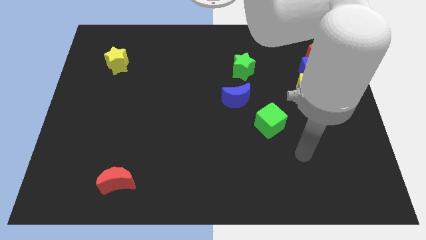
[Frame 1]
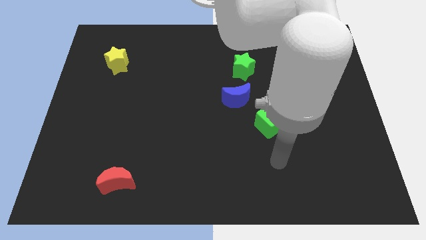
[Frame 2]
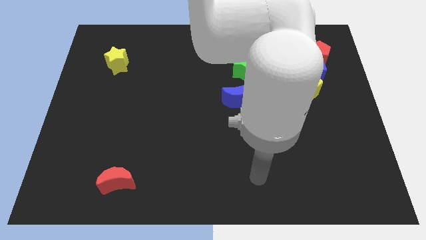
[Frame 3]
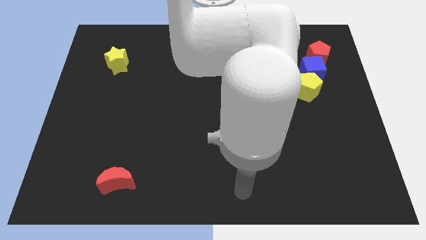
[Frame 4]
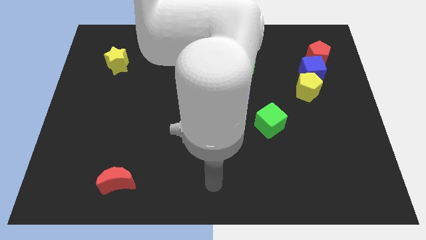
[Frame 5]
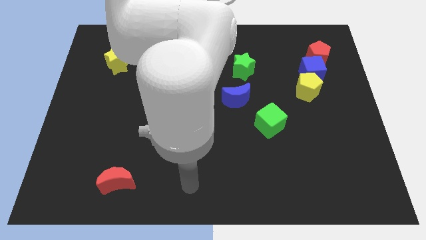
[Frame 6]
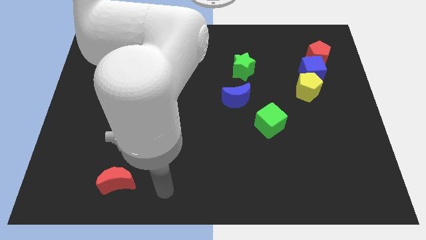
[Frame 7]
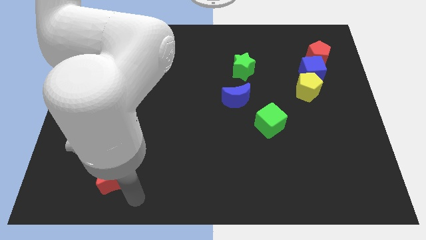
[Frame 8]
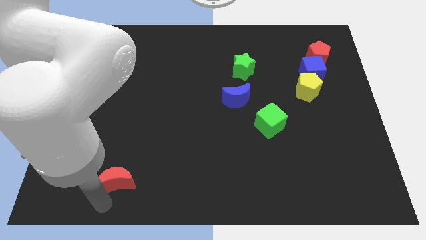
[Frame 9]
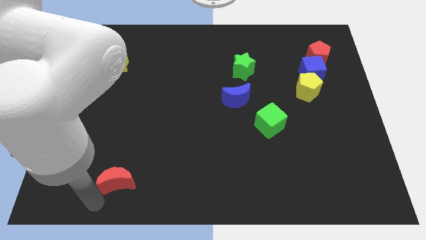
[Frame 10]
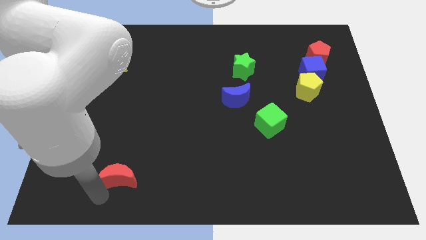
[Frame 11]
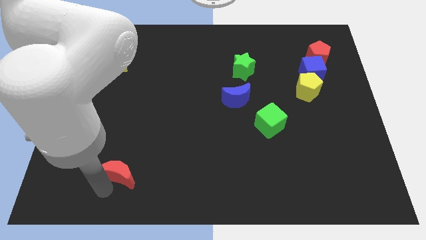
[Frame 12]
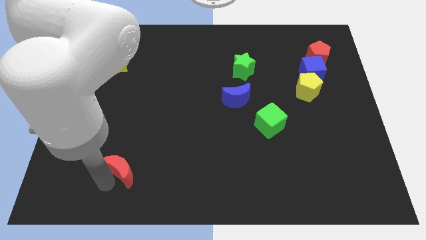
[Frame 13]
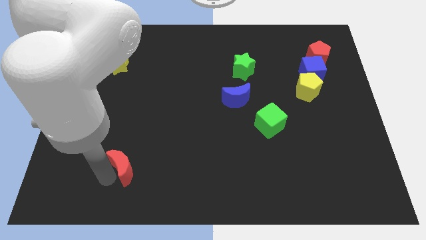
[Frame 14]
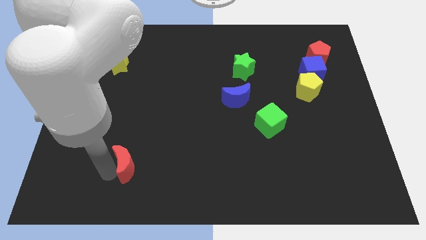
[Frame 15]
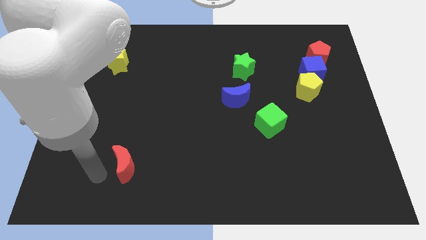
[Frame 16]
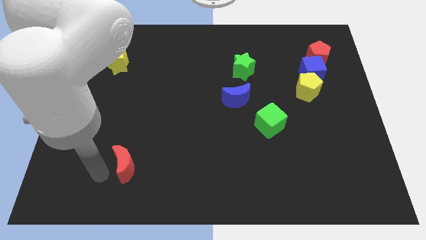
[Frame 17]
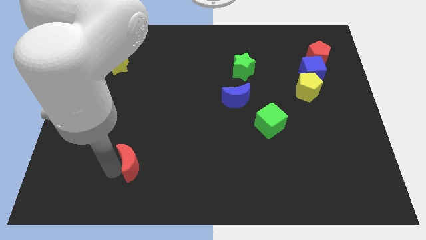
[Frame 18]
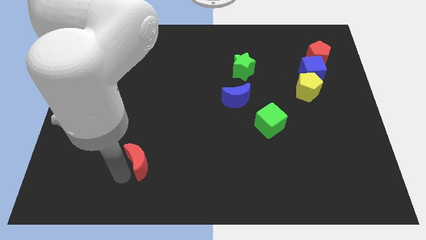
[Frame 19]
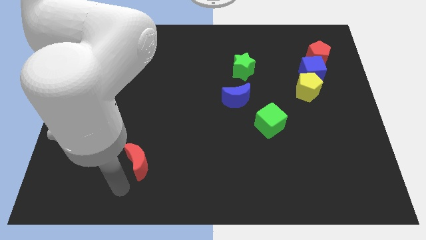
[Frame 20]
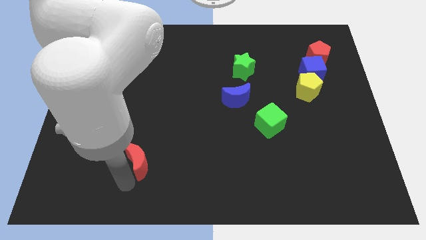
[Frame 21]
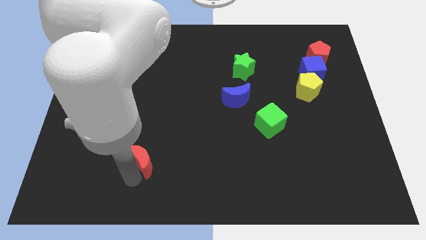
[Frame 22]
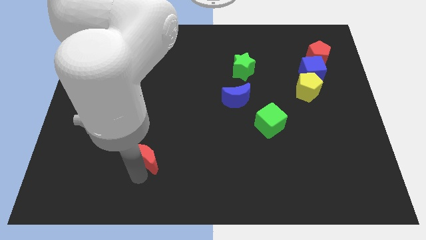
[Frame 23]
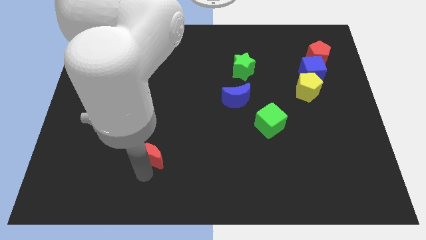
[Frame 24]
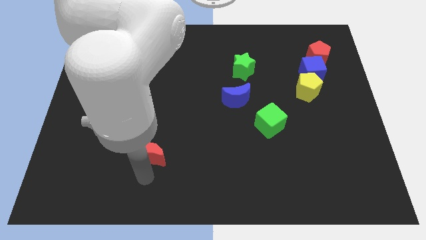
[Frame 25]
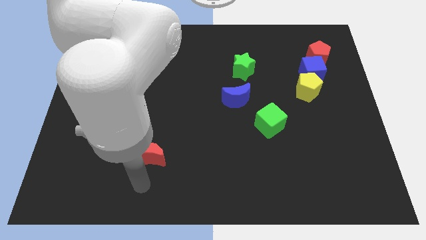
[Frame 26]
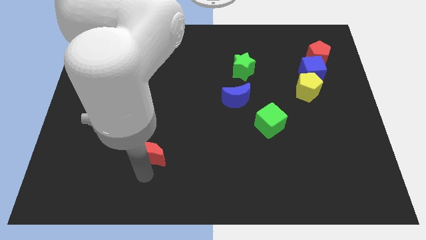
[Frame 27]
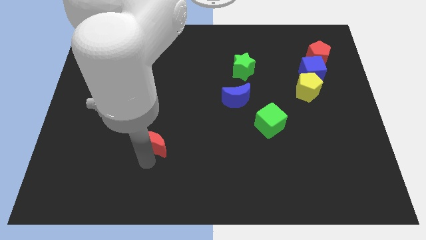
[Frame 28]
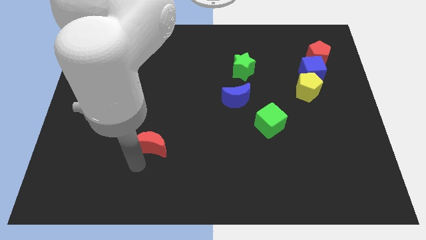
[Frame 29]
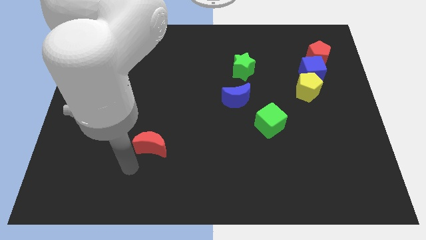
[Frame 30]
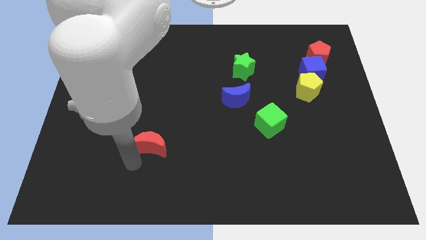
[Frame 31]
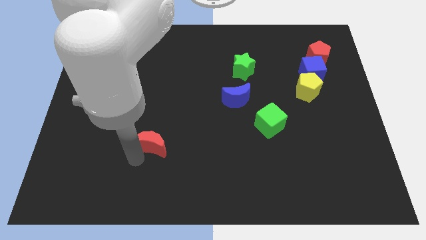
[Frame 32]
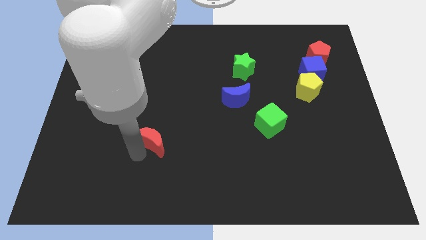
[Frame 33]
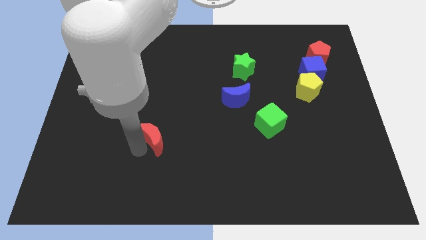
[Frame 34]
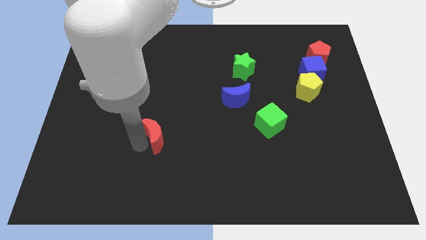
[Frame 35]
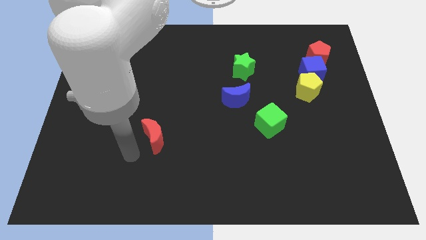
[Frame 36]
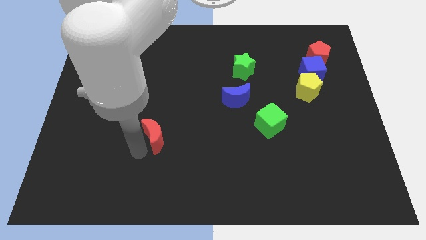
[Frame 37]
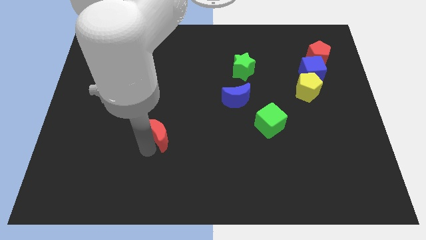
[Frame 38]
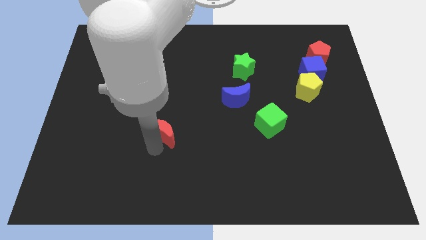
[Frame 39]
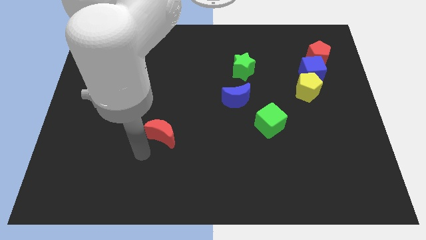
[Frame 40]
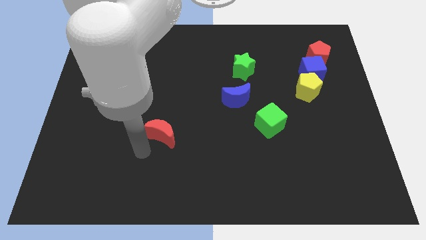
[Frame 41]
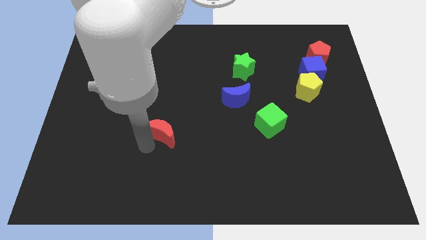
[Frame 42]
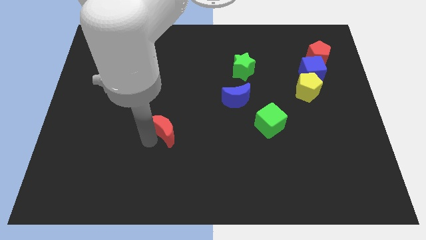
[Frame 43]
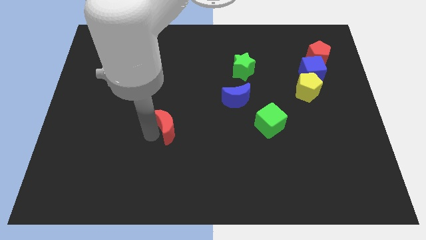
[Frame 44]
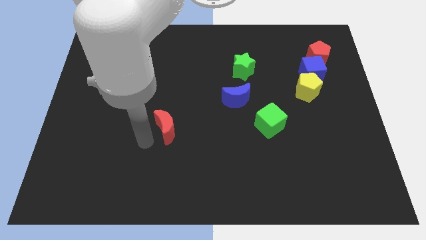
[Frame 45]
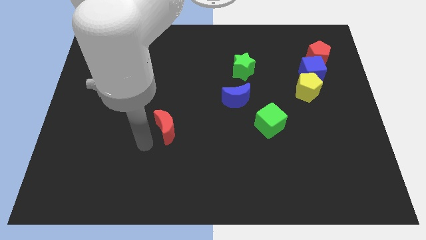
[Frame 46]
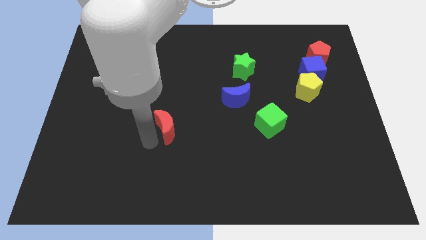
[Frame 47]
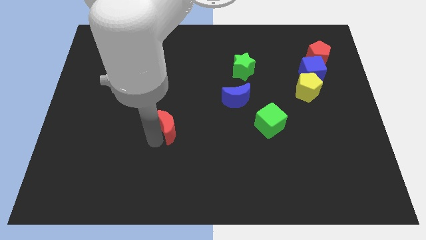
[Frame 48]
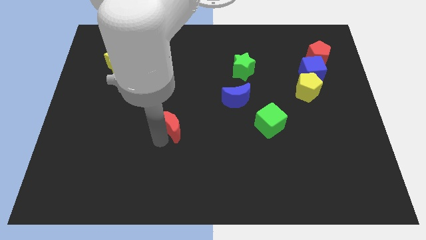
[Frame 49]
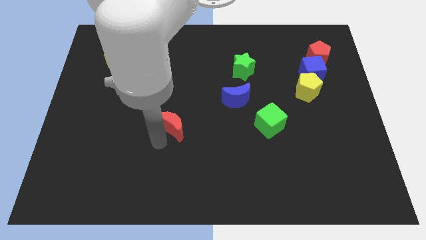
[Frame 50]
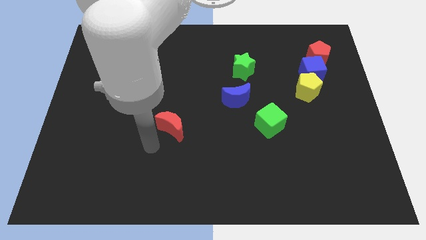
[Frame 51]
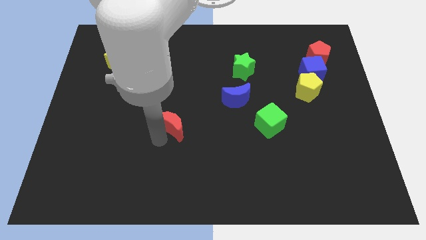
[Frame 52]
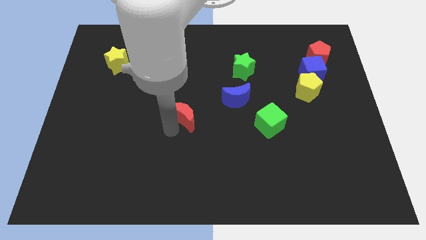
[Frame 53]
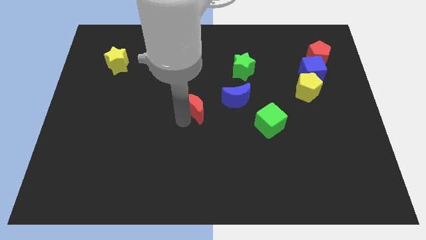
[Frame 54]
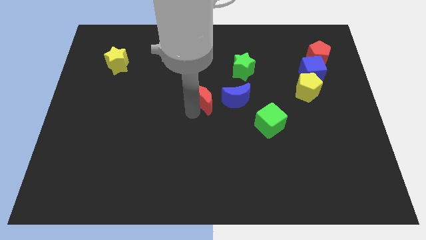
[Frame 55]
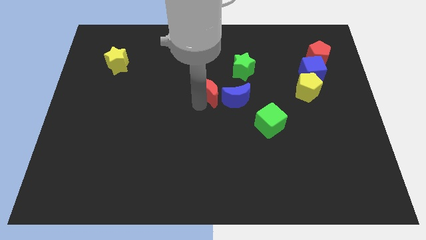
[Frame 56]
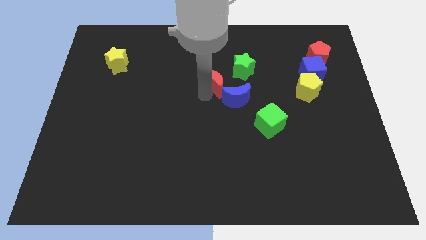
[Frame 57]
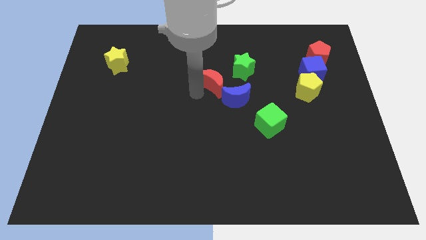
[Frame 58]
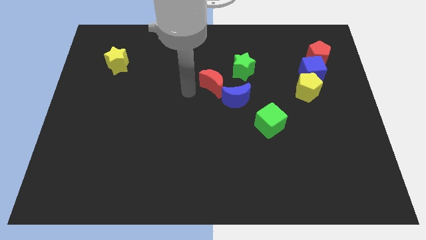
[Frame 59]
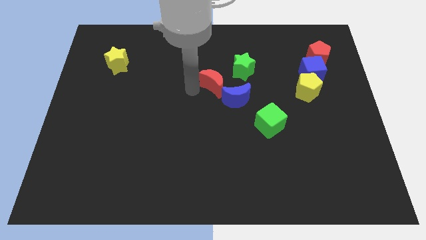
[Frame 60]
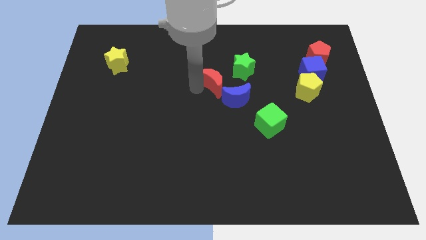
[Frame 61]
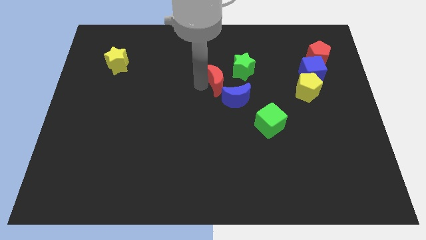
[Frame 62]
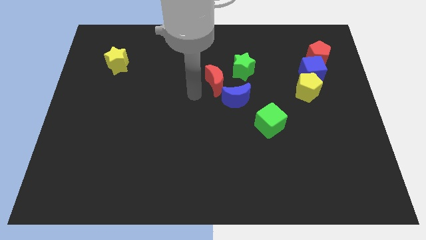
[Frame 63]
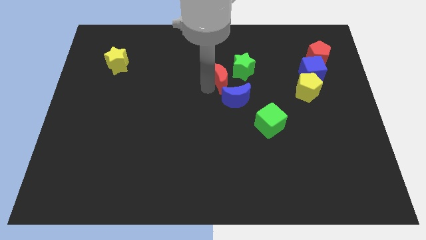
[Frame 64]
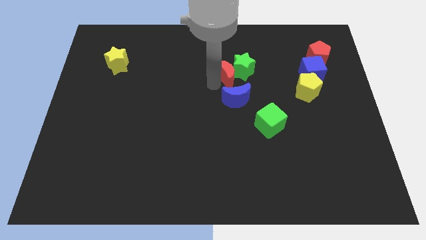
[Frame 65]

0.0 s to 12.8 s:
put the red moon towards the green star

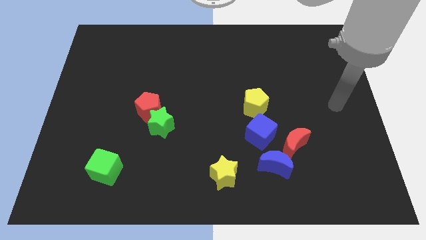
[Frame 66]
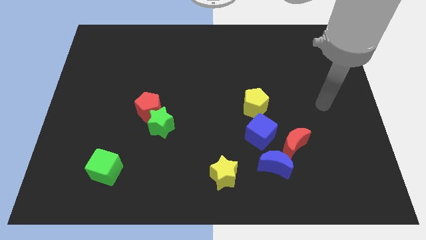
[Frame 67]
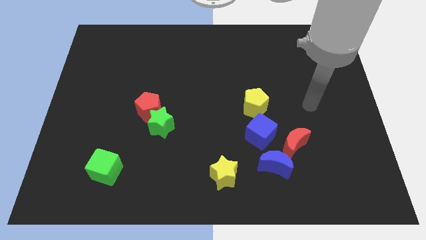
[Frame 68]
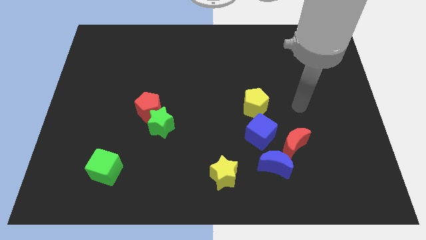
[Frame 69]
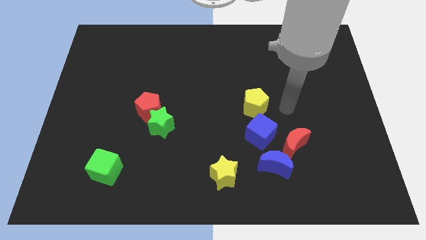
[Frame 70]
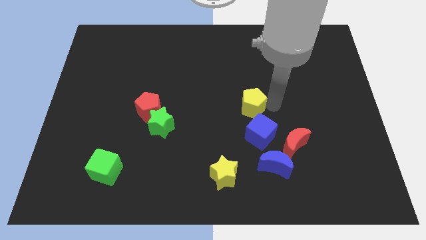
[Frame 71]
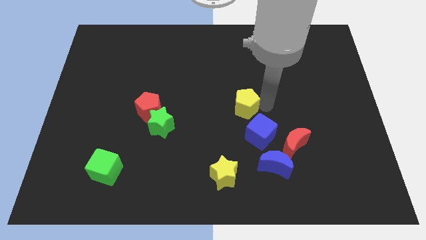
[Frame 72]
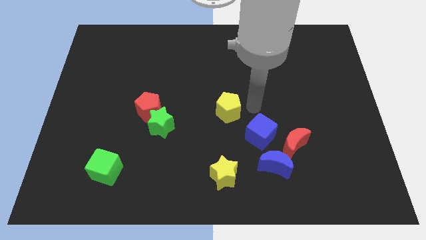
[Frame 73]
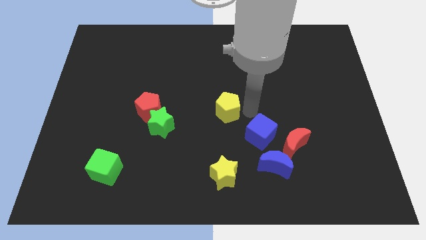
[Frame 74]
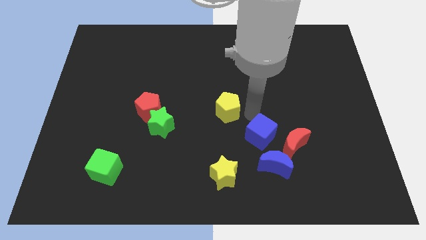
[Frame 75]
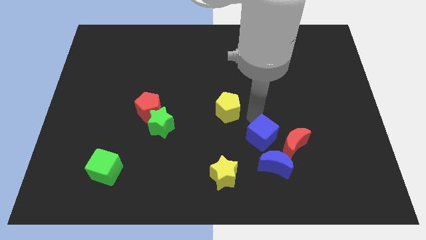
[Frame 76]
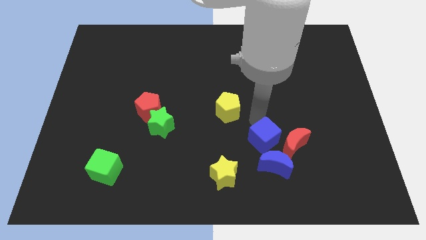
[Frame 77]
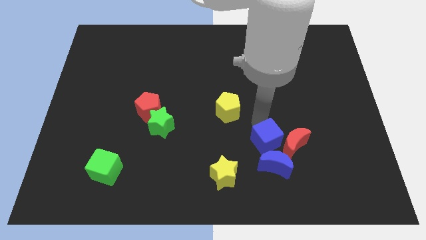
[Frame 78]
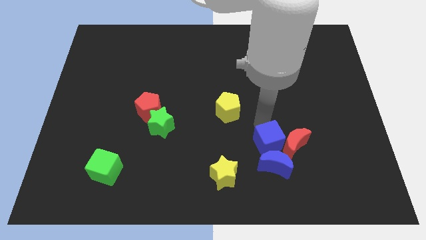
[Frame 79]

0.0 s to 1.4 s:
put the blue cube next to the blue moon
